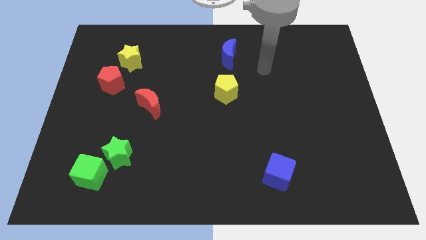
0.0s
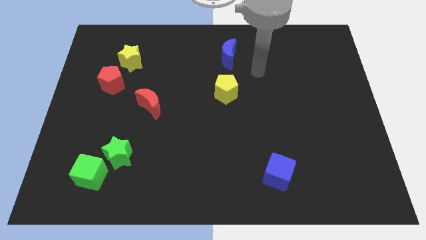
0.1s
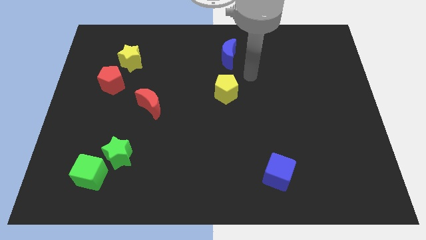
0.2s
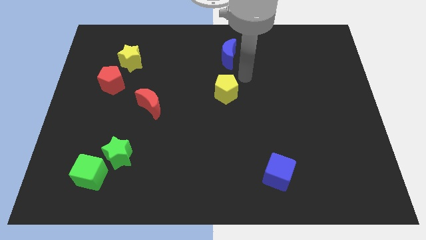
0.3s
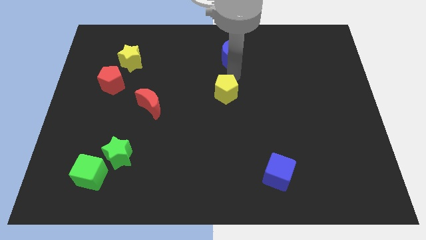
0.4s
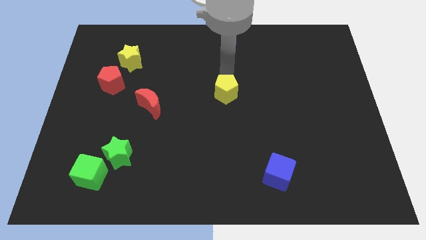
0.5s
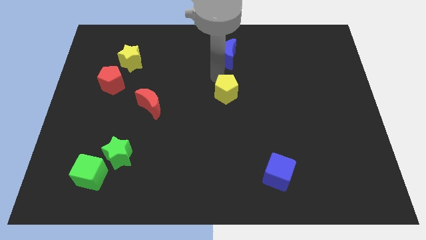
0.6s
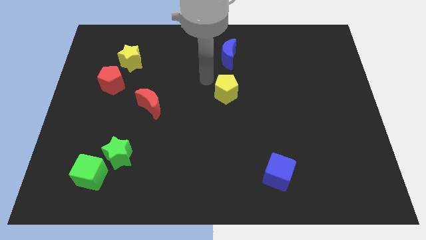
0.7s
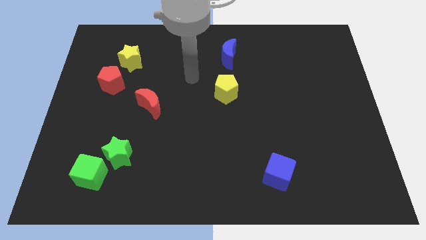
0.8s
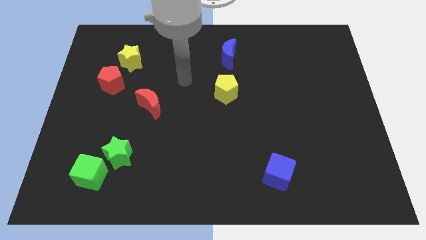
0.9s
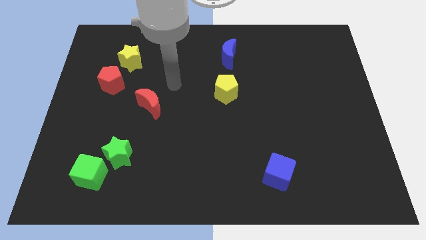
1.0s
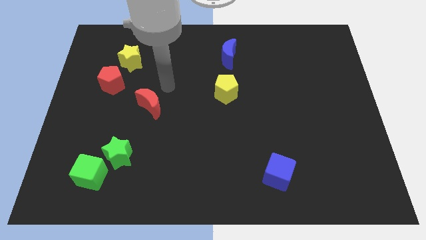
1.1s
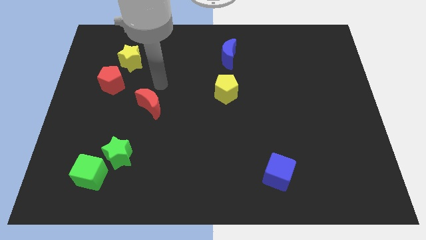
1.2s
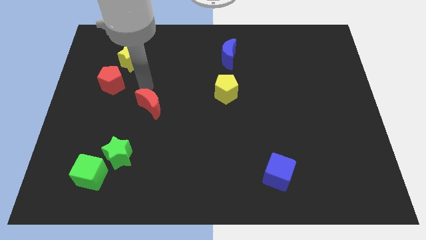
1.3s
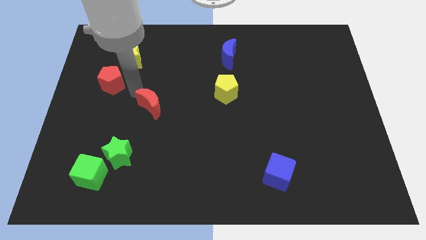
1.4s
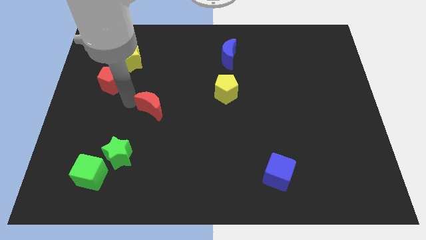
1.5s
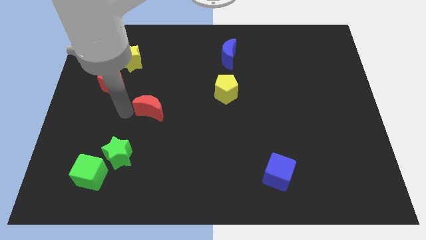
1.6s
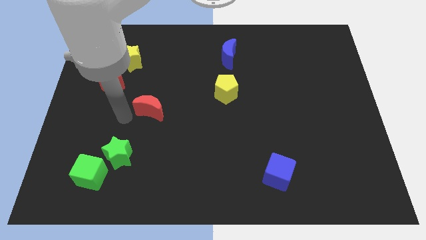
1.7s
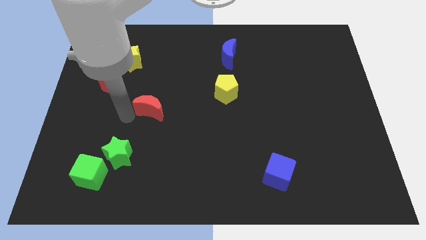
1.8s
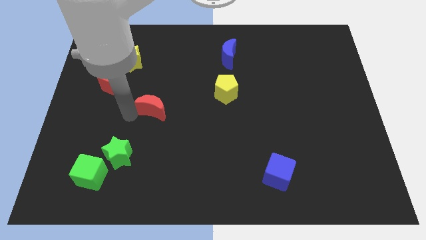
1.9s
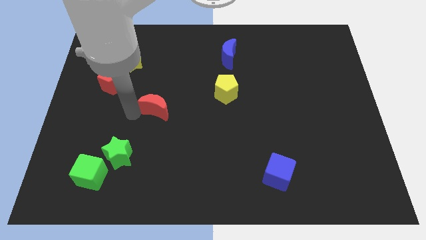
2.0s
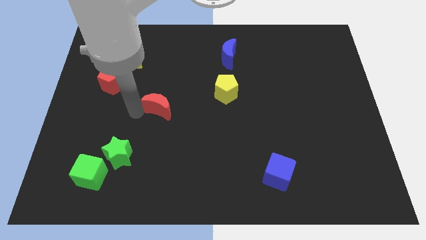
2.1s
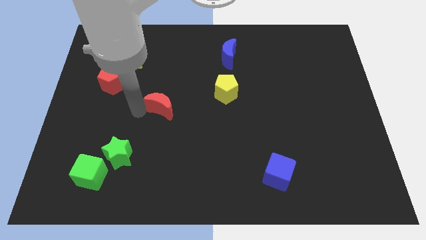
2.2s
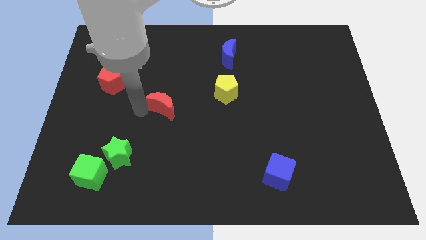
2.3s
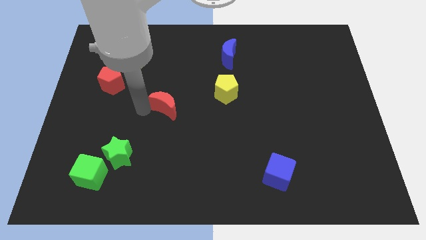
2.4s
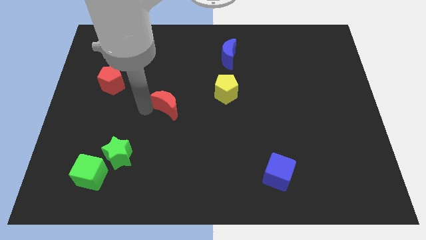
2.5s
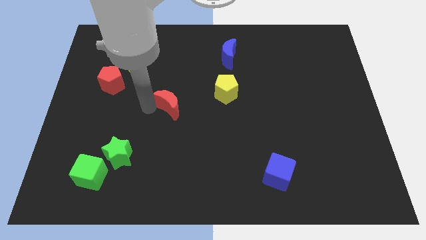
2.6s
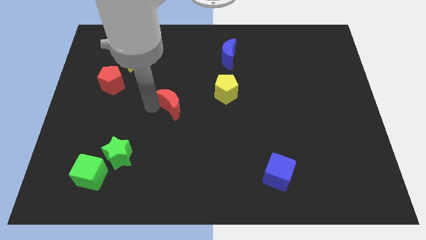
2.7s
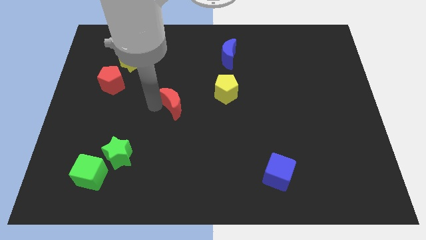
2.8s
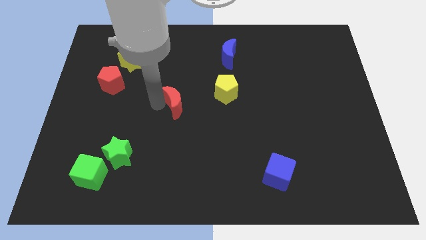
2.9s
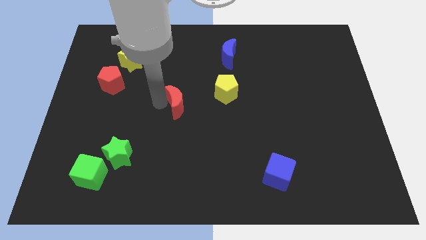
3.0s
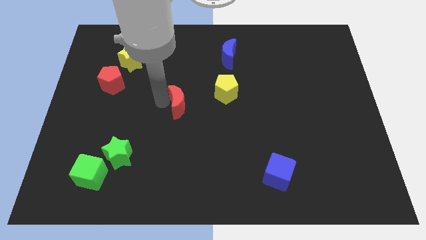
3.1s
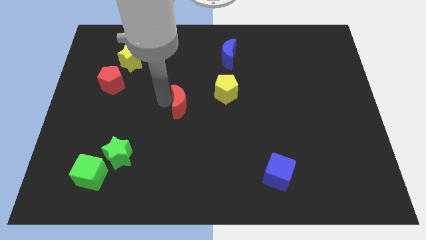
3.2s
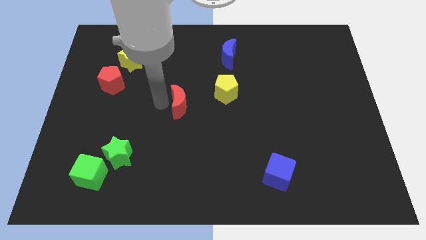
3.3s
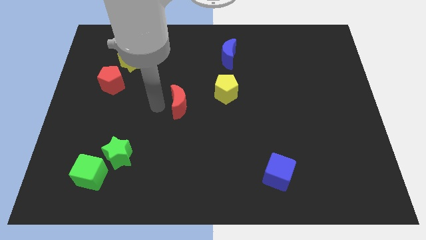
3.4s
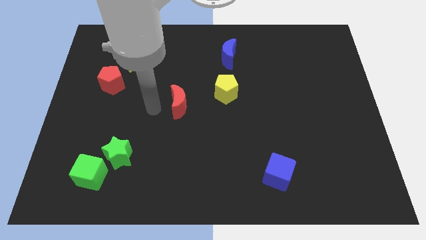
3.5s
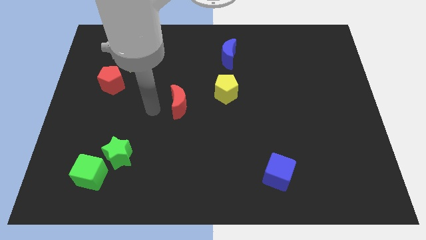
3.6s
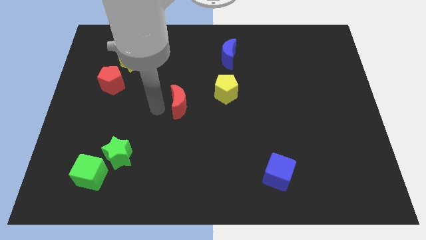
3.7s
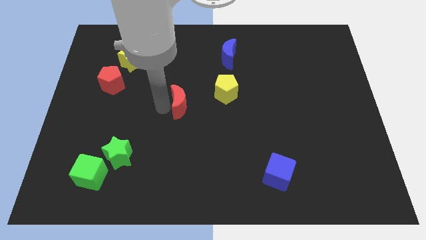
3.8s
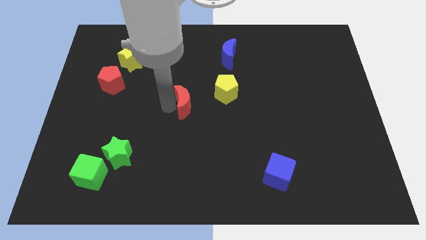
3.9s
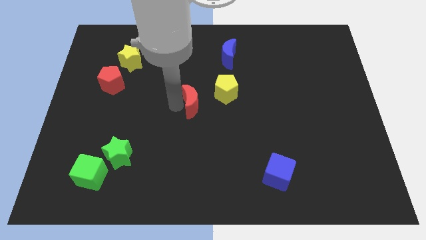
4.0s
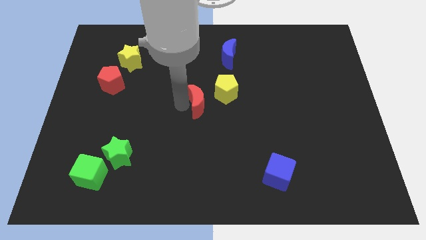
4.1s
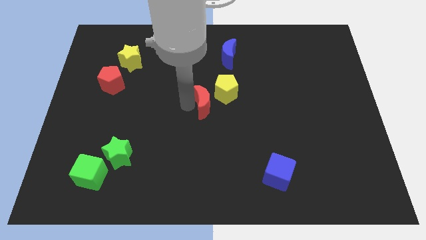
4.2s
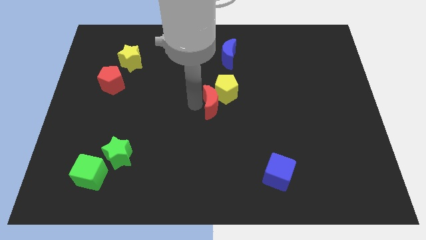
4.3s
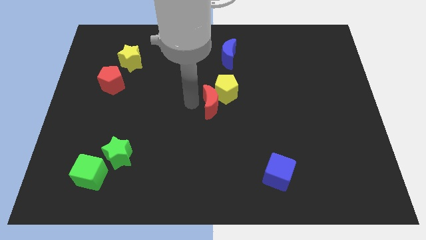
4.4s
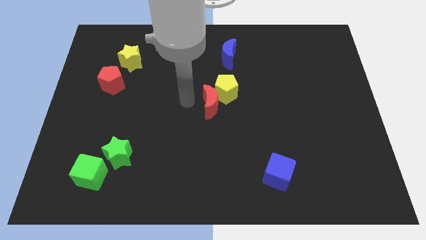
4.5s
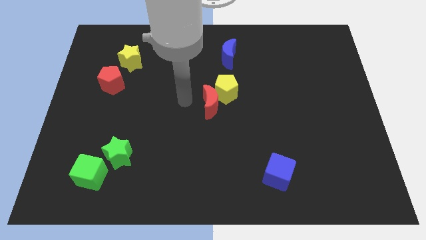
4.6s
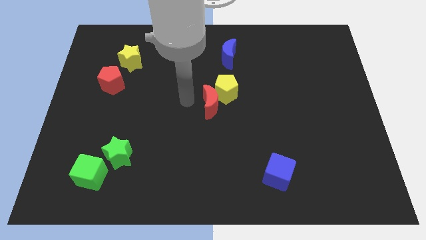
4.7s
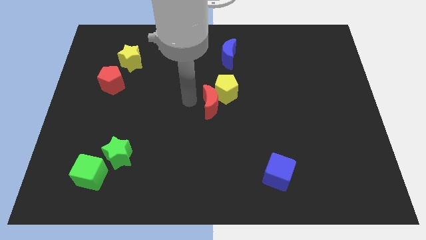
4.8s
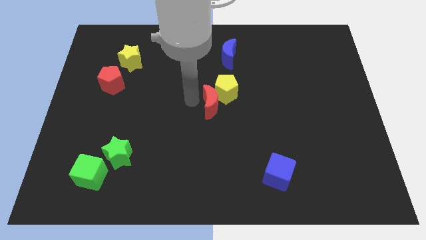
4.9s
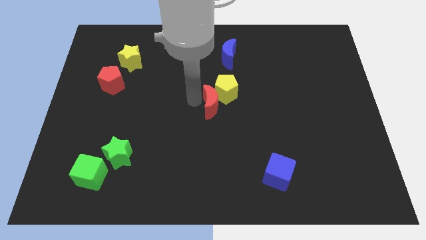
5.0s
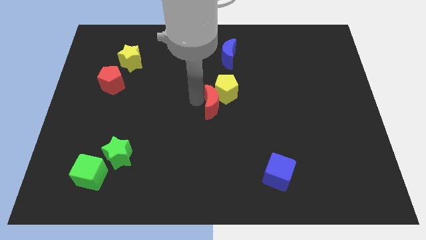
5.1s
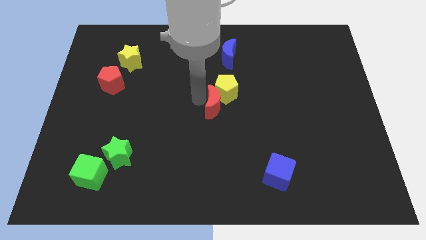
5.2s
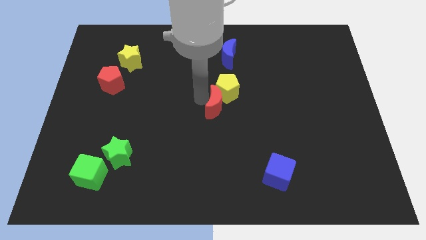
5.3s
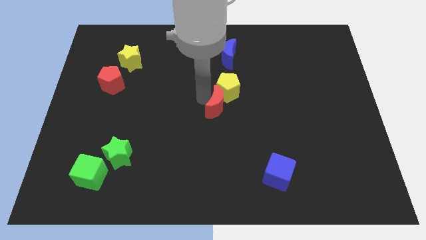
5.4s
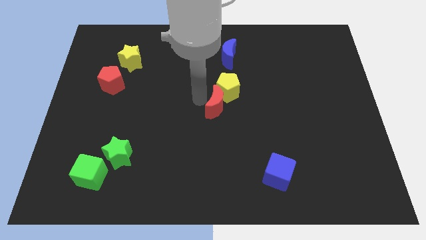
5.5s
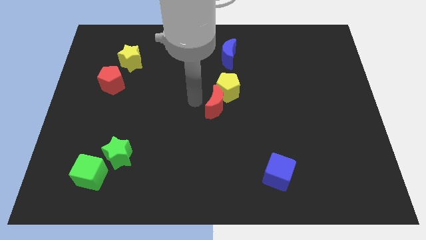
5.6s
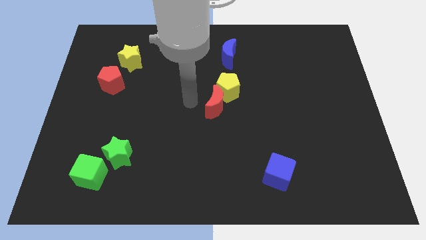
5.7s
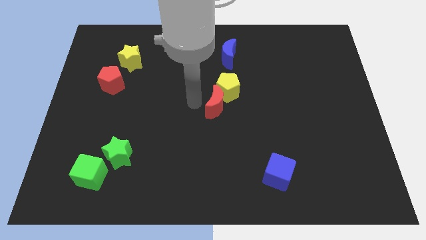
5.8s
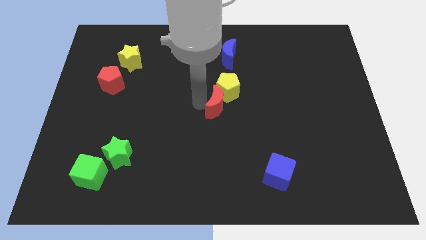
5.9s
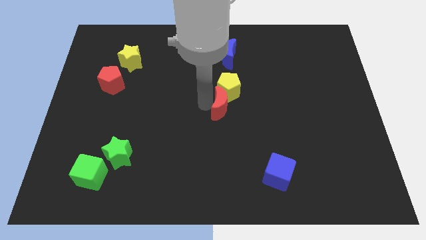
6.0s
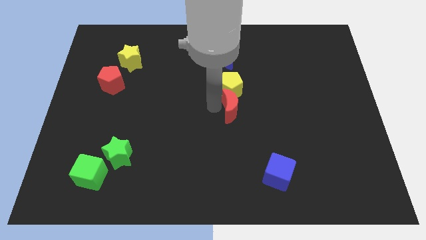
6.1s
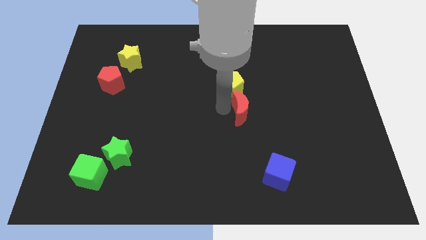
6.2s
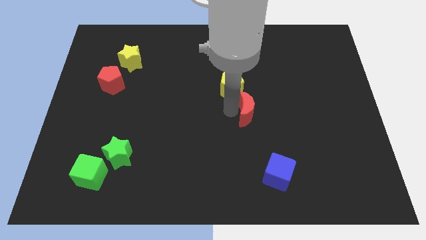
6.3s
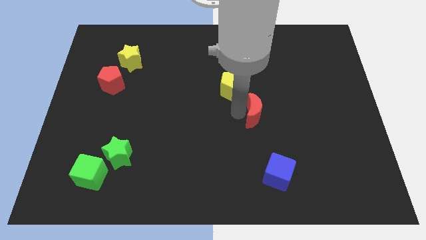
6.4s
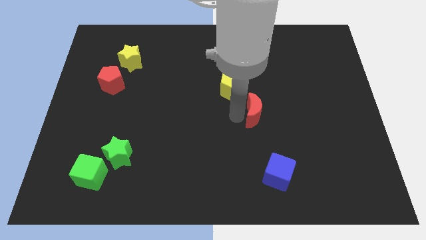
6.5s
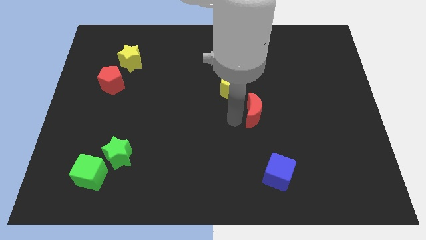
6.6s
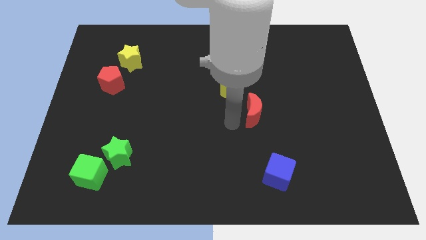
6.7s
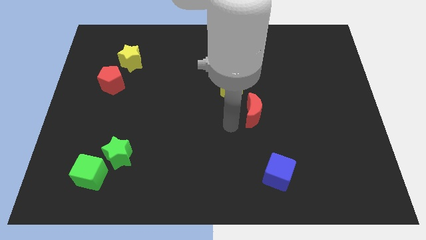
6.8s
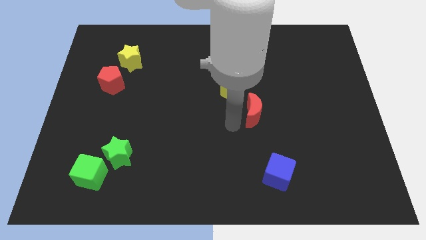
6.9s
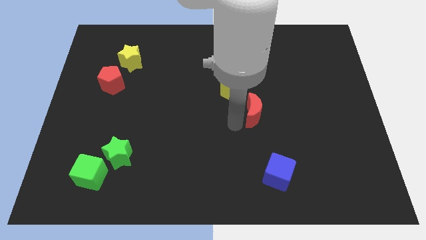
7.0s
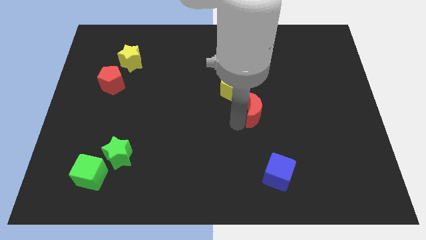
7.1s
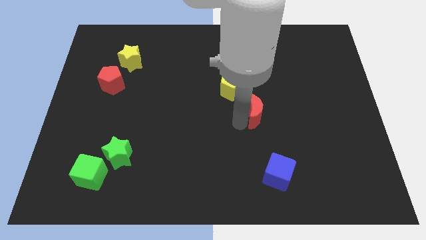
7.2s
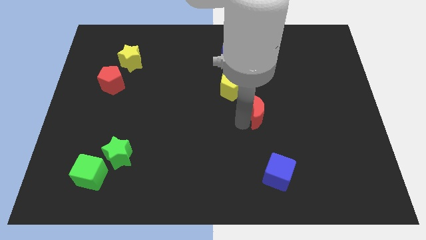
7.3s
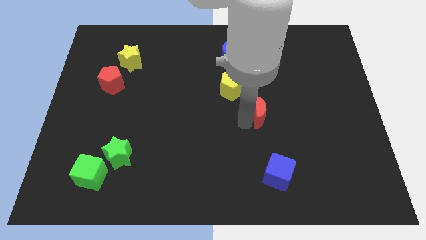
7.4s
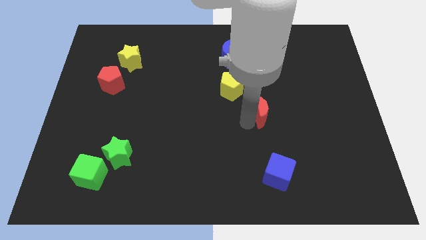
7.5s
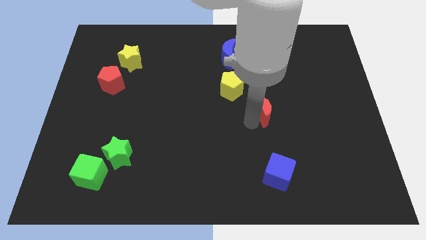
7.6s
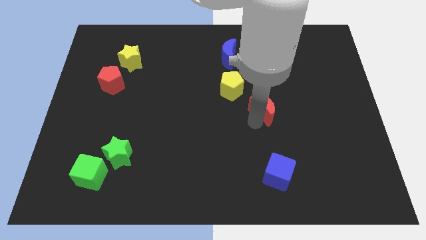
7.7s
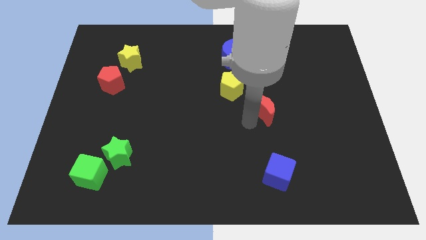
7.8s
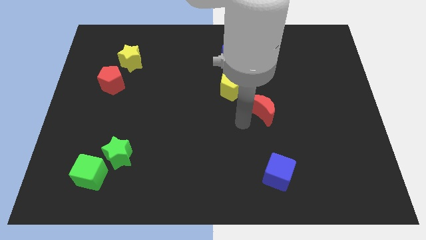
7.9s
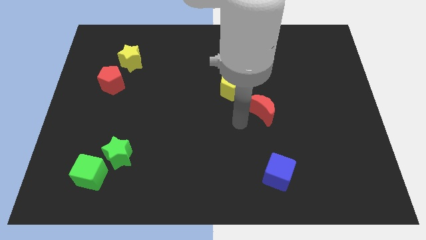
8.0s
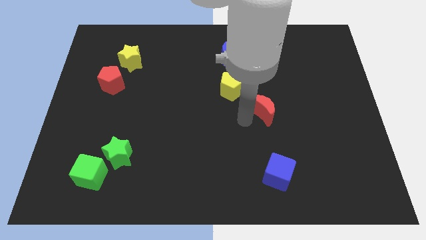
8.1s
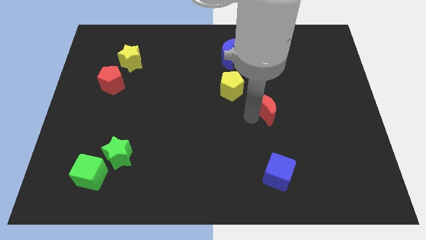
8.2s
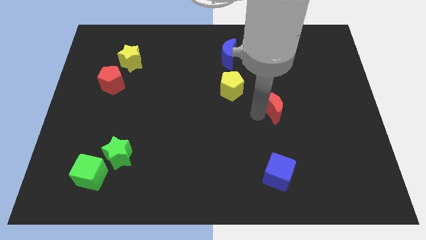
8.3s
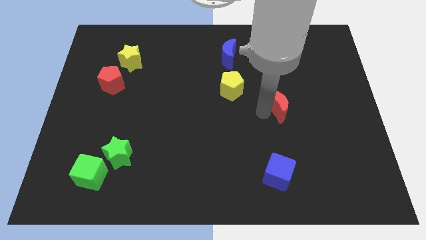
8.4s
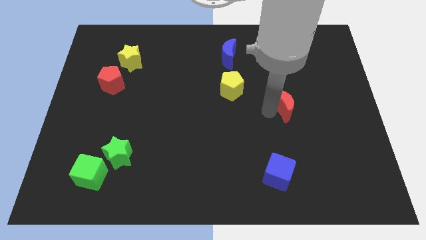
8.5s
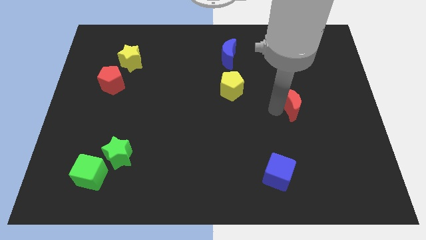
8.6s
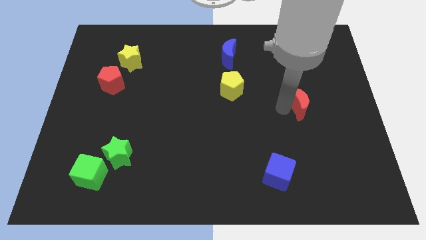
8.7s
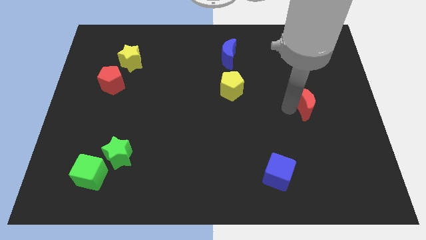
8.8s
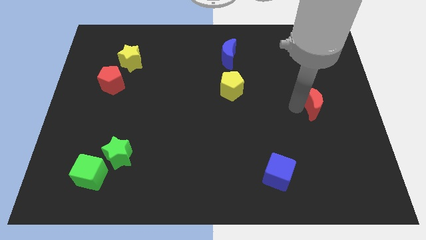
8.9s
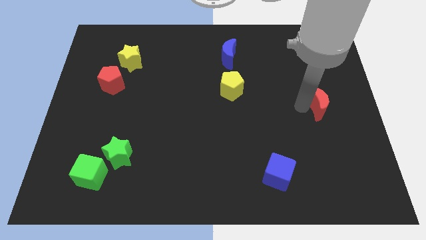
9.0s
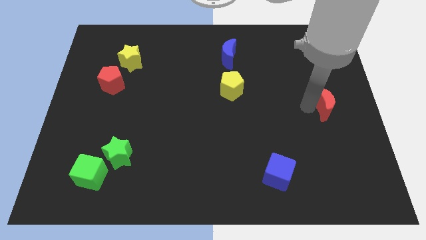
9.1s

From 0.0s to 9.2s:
slide the red moon to the right side of the board
